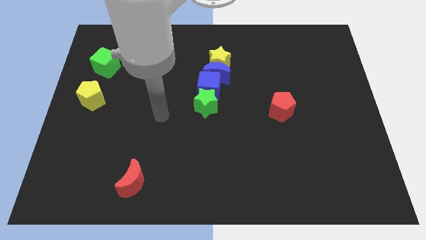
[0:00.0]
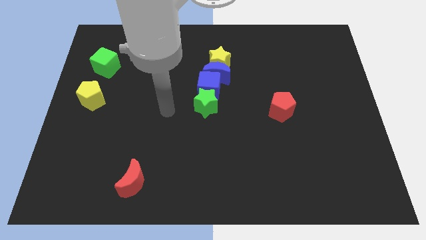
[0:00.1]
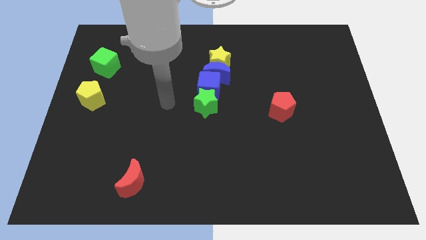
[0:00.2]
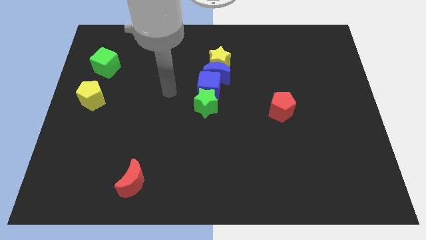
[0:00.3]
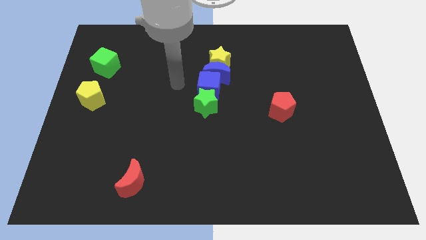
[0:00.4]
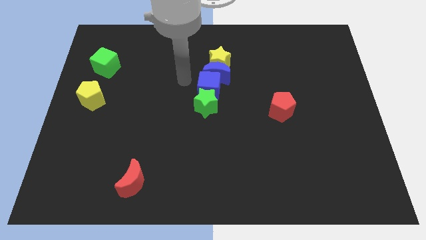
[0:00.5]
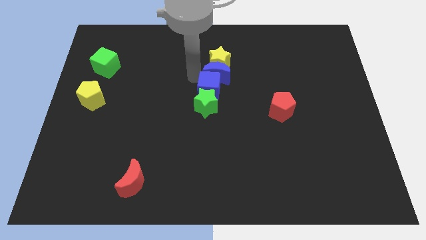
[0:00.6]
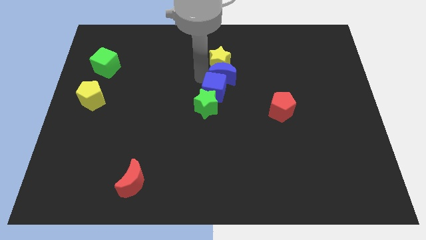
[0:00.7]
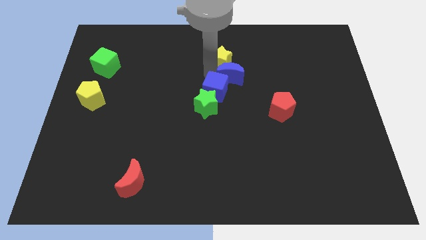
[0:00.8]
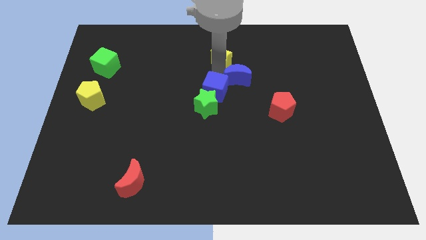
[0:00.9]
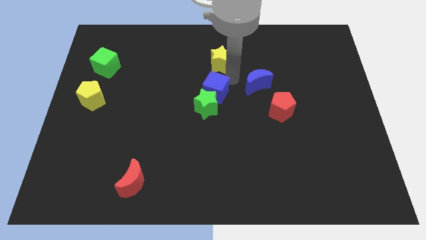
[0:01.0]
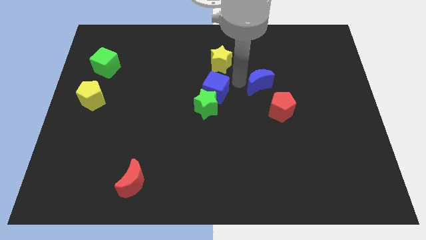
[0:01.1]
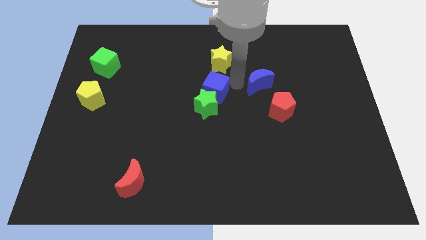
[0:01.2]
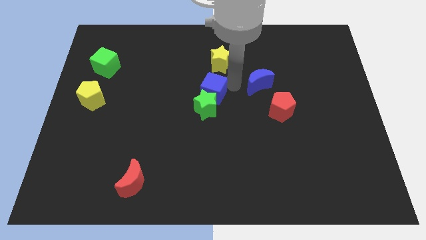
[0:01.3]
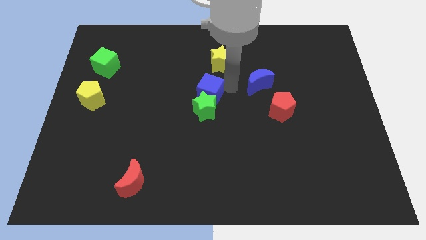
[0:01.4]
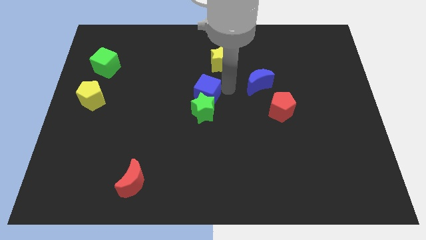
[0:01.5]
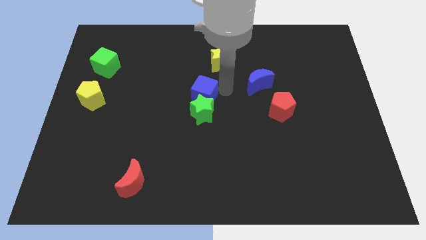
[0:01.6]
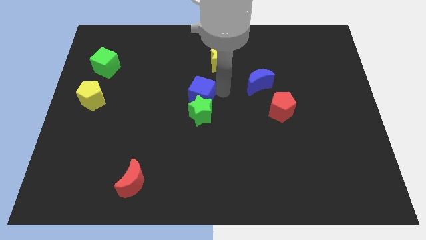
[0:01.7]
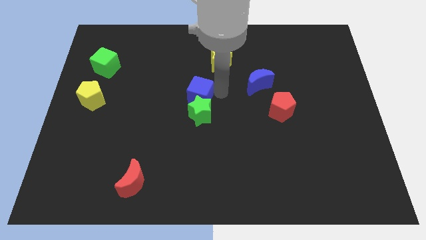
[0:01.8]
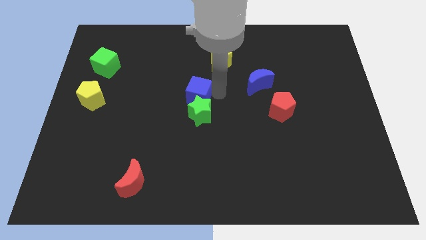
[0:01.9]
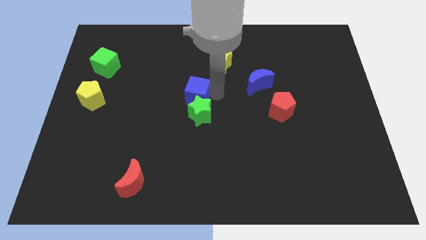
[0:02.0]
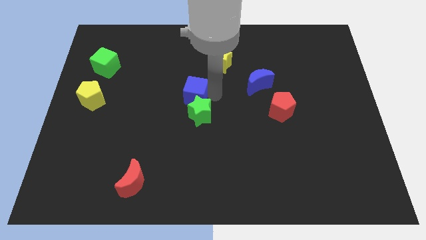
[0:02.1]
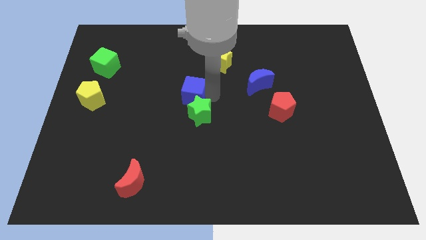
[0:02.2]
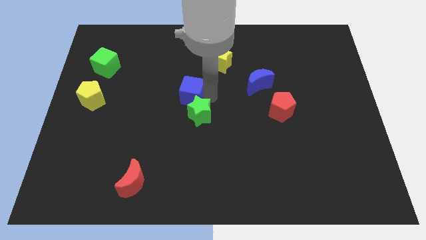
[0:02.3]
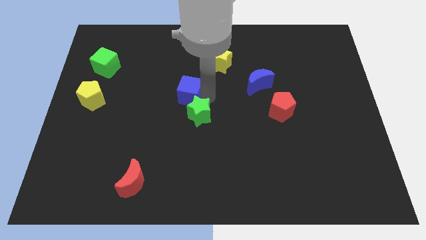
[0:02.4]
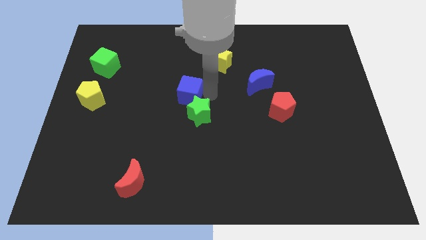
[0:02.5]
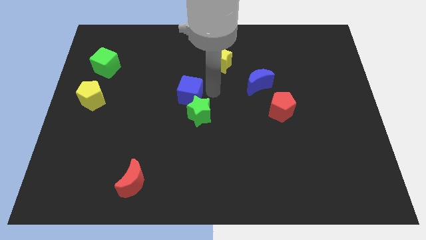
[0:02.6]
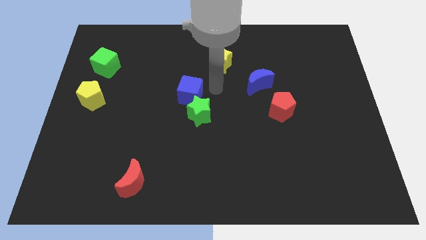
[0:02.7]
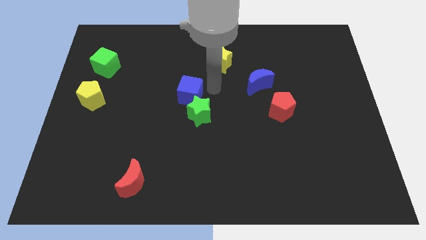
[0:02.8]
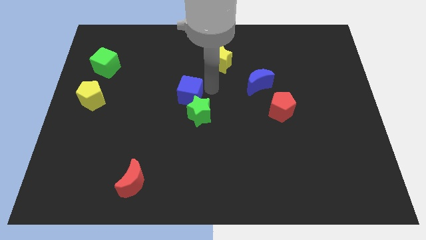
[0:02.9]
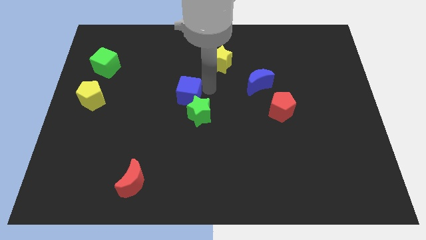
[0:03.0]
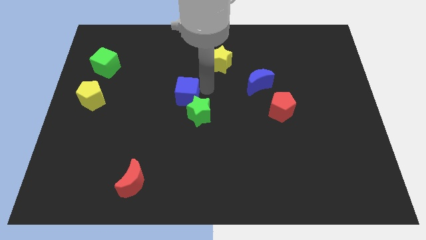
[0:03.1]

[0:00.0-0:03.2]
pull the blue cube apart from the blue moon, green star, and yellow star

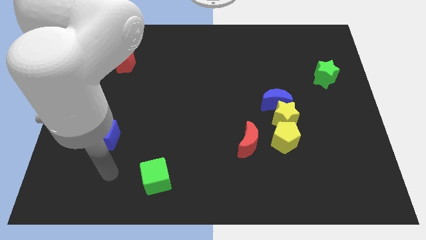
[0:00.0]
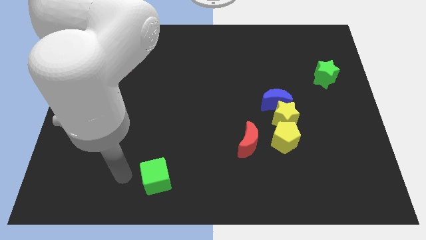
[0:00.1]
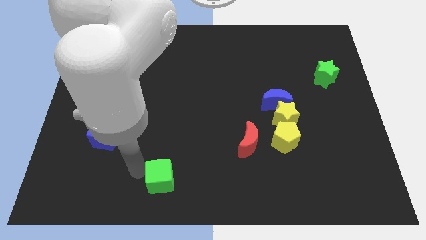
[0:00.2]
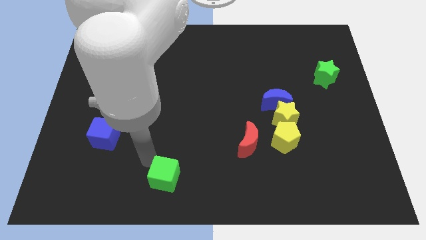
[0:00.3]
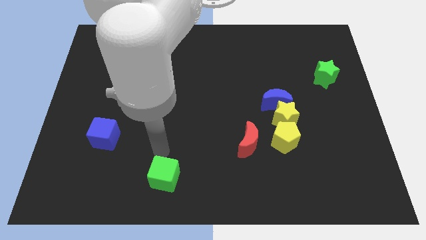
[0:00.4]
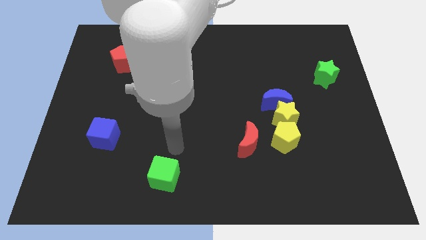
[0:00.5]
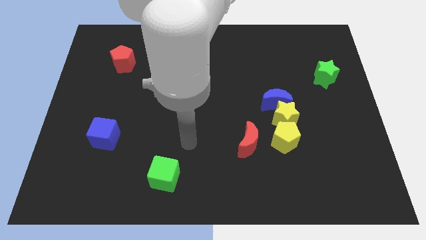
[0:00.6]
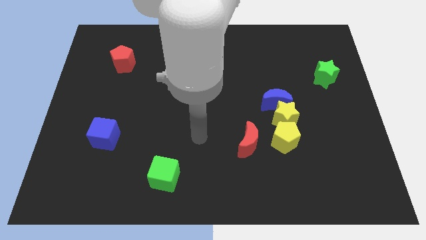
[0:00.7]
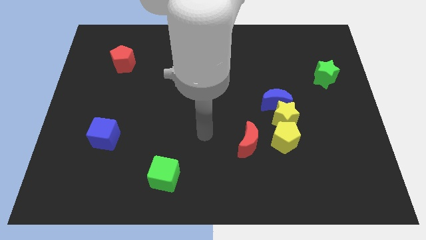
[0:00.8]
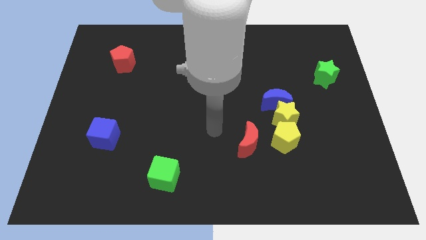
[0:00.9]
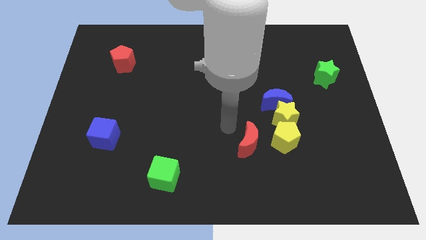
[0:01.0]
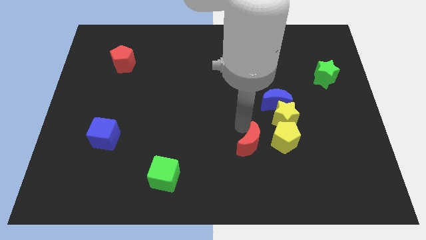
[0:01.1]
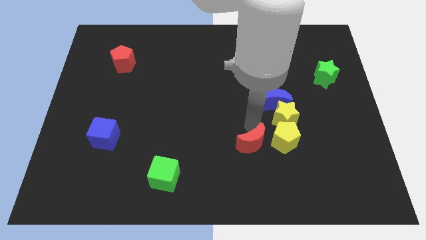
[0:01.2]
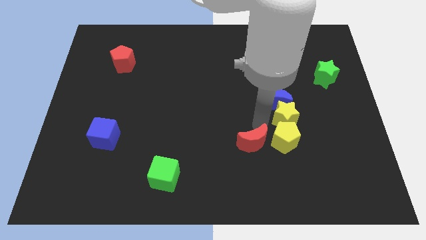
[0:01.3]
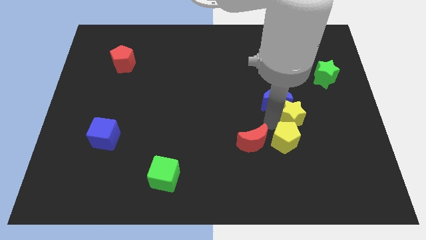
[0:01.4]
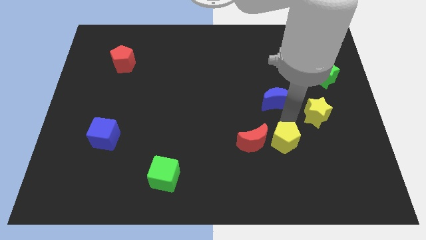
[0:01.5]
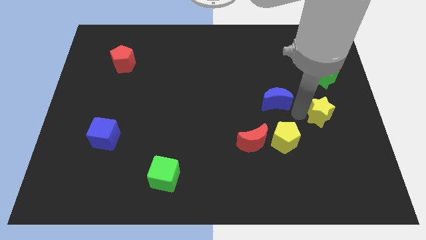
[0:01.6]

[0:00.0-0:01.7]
pull the blue moon apart from the yellow star

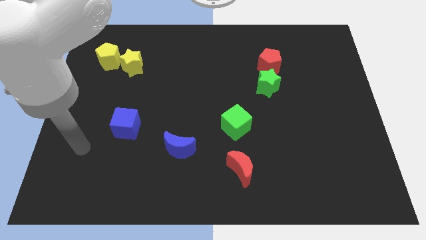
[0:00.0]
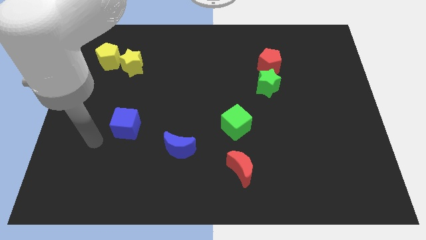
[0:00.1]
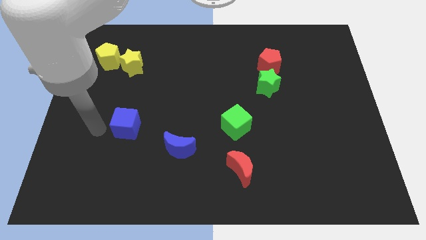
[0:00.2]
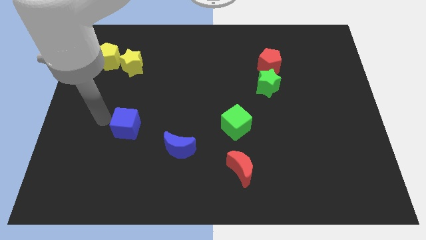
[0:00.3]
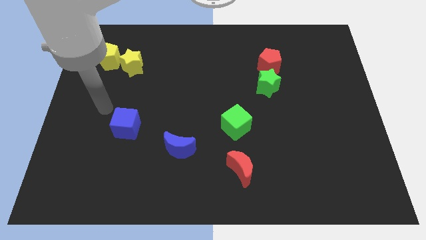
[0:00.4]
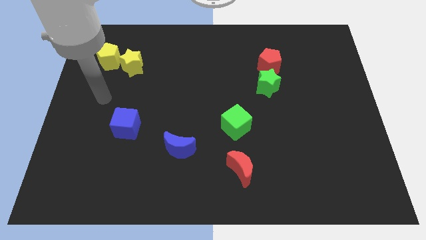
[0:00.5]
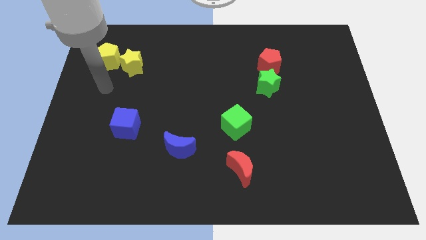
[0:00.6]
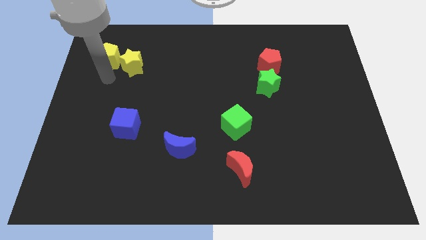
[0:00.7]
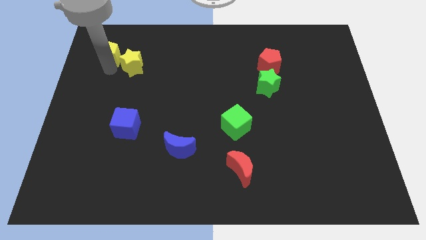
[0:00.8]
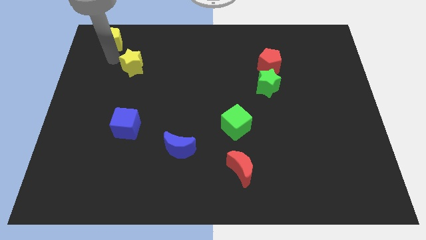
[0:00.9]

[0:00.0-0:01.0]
separate the yellow star from the yellow pentagon

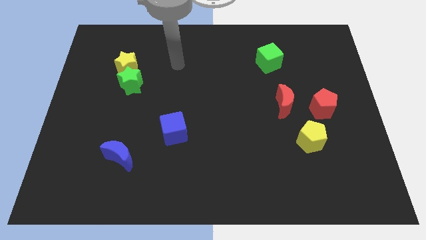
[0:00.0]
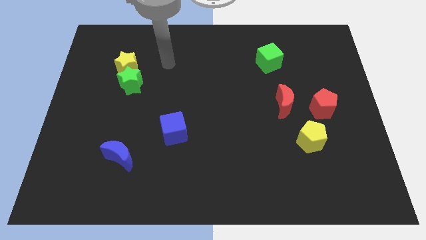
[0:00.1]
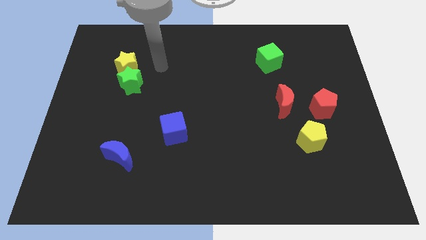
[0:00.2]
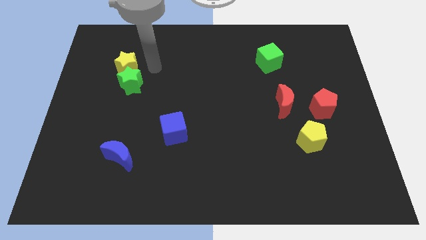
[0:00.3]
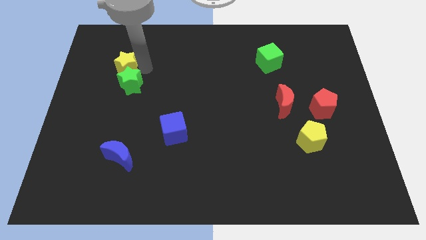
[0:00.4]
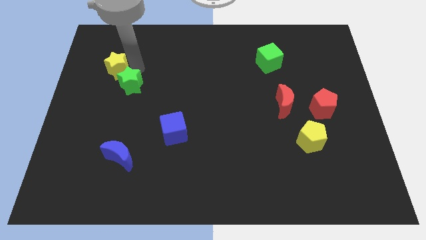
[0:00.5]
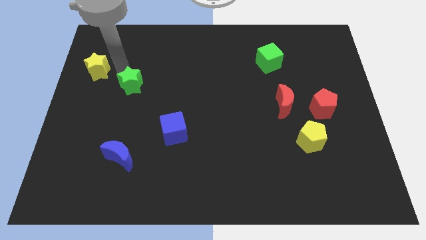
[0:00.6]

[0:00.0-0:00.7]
pull the green star apart from the yellow star

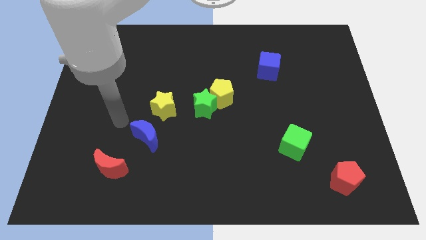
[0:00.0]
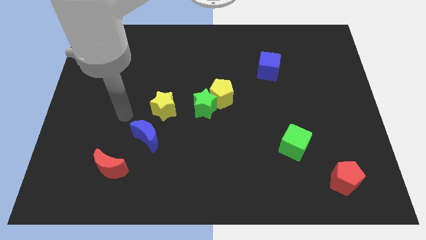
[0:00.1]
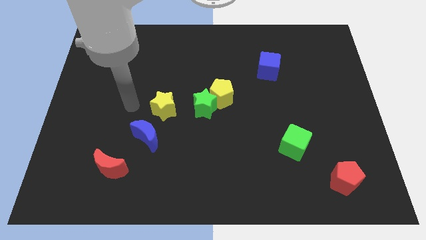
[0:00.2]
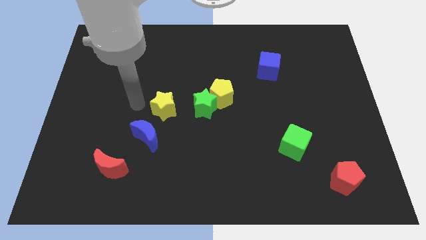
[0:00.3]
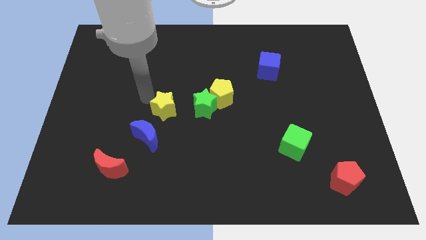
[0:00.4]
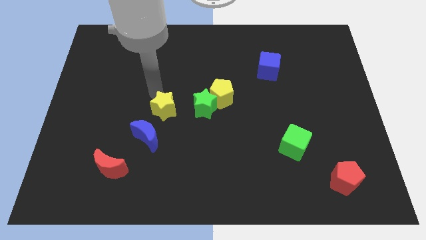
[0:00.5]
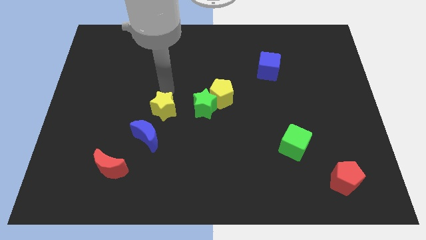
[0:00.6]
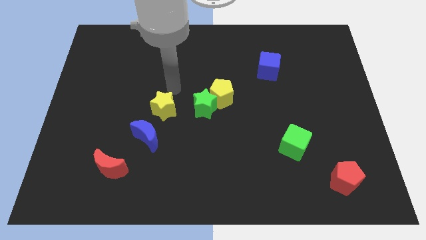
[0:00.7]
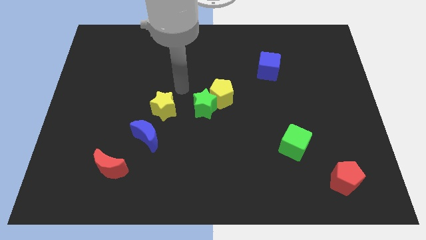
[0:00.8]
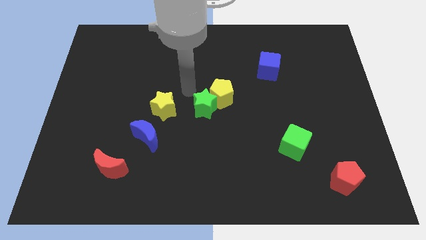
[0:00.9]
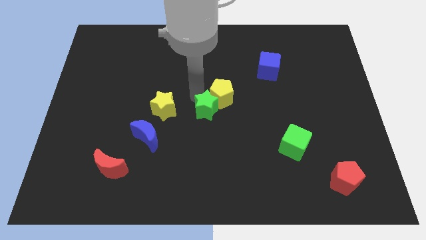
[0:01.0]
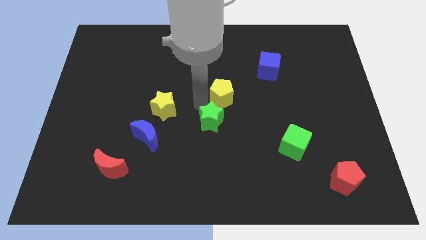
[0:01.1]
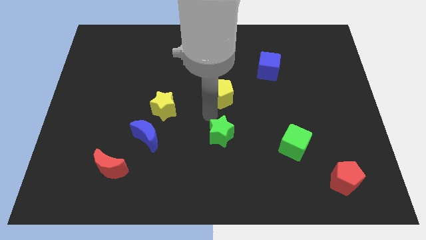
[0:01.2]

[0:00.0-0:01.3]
move the yellow pentagon away from the green star

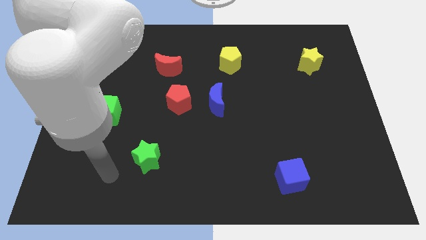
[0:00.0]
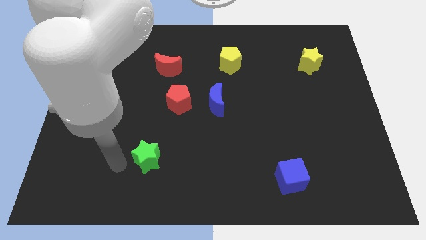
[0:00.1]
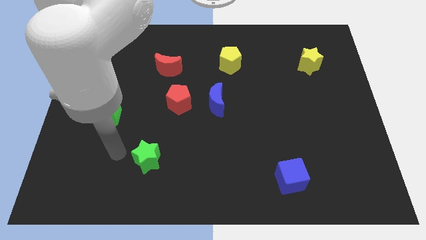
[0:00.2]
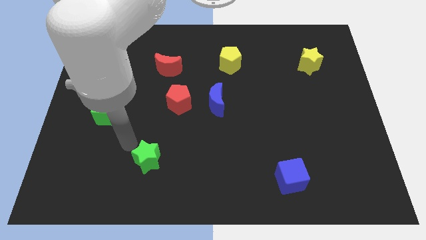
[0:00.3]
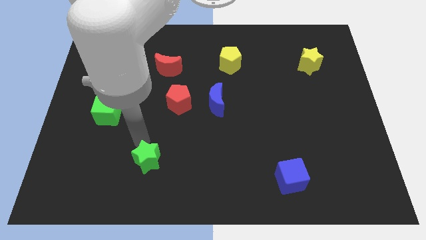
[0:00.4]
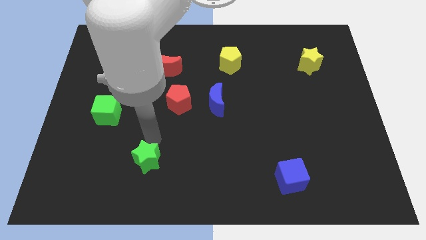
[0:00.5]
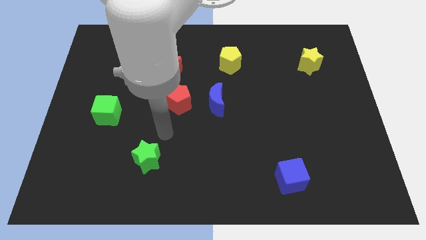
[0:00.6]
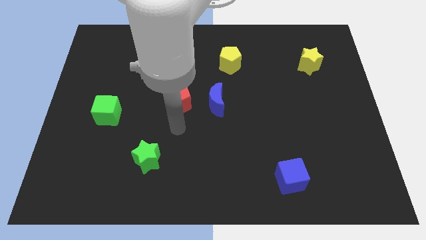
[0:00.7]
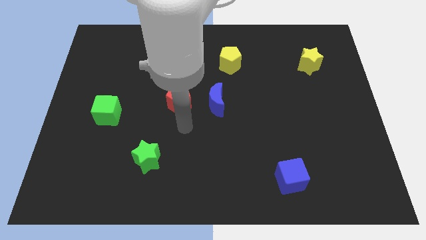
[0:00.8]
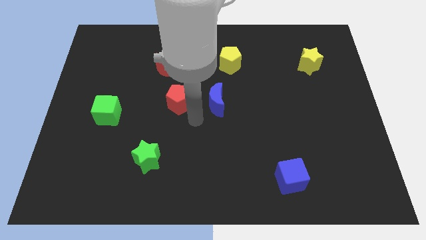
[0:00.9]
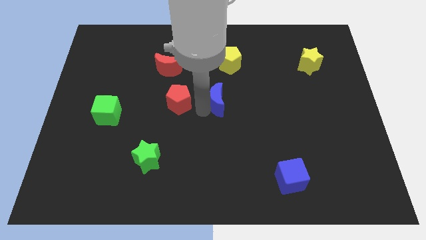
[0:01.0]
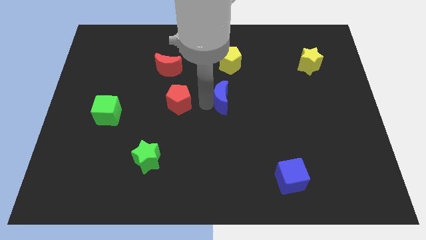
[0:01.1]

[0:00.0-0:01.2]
pull the red pentagon apart from the blue moon

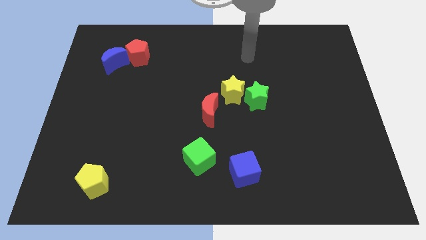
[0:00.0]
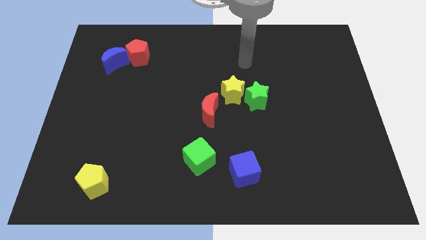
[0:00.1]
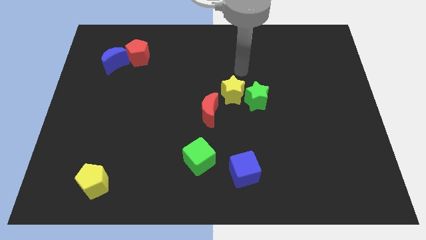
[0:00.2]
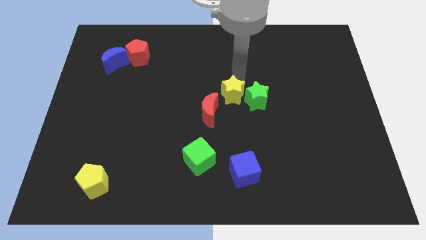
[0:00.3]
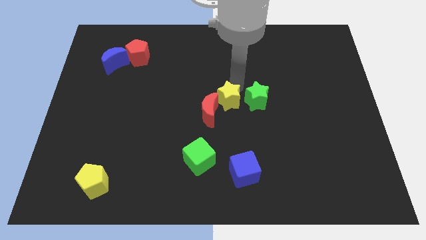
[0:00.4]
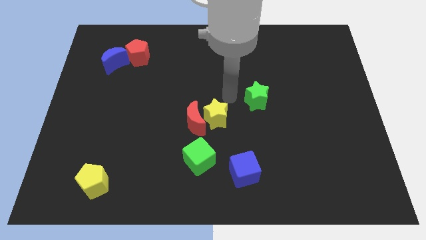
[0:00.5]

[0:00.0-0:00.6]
move the green star away from the yellow star
